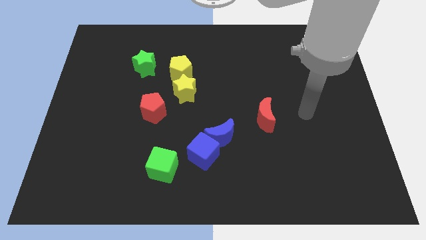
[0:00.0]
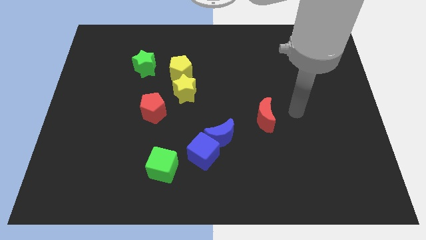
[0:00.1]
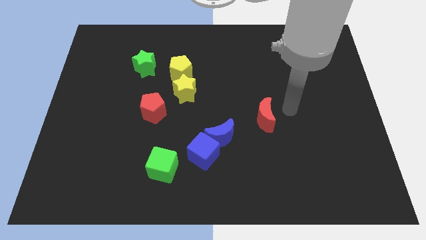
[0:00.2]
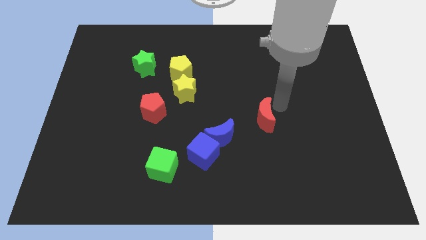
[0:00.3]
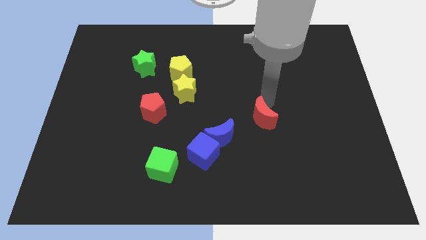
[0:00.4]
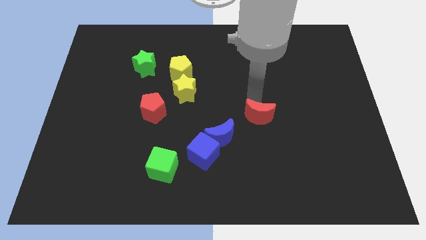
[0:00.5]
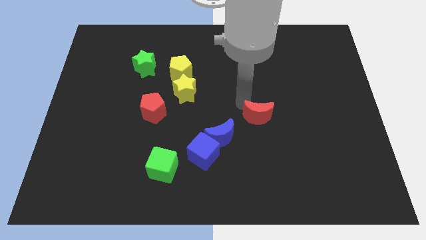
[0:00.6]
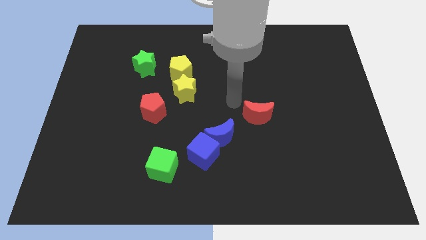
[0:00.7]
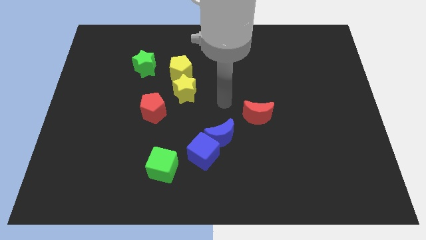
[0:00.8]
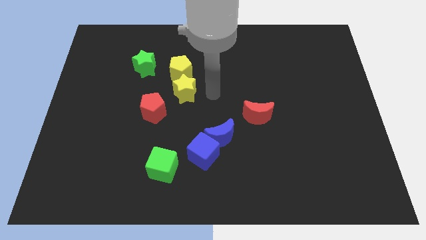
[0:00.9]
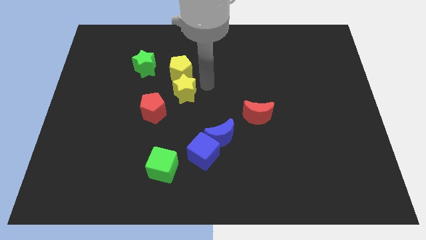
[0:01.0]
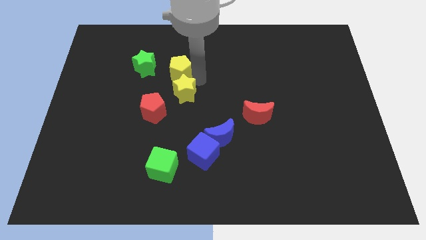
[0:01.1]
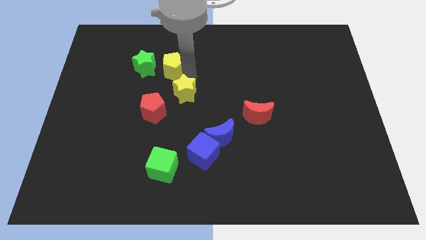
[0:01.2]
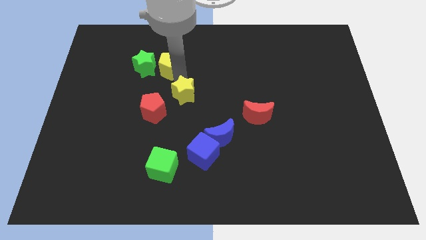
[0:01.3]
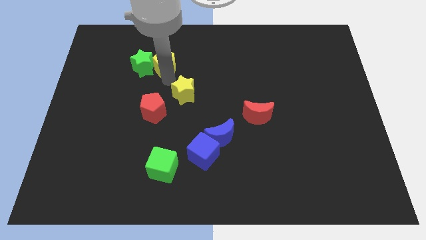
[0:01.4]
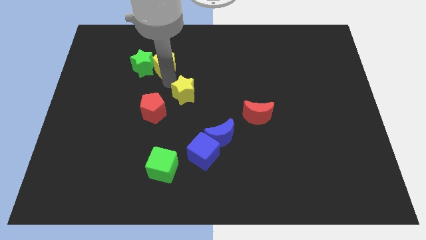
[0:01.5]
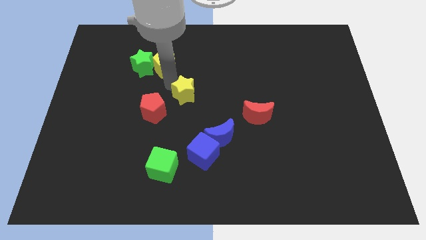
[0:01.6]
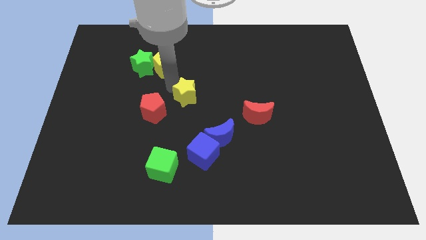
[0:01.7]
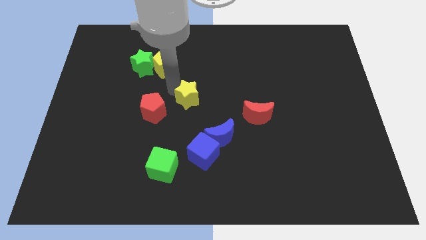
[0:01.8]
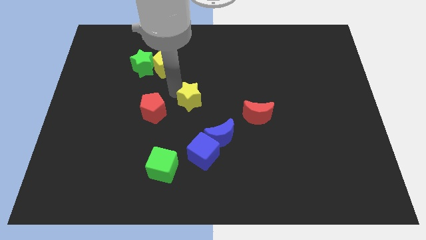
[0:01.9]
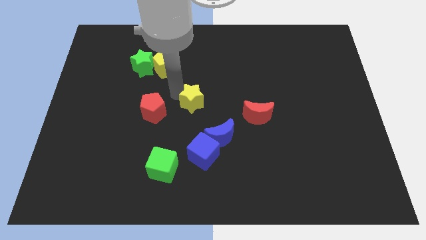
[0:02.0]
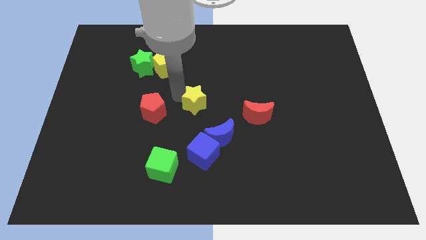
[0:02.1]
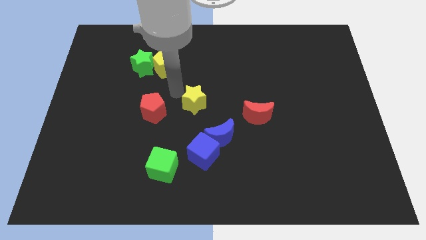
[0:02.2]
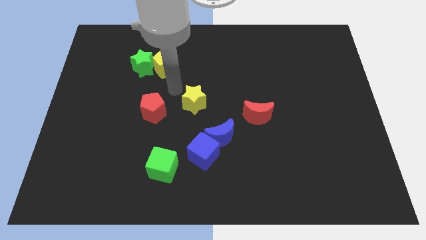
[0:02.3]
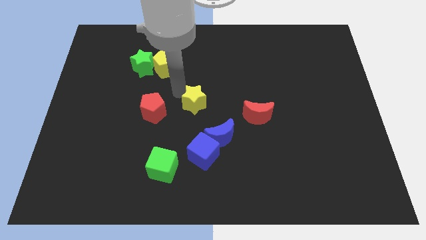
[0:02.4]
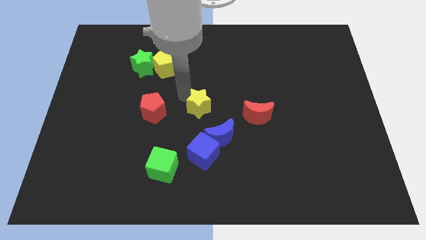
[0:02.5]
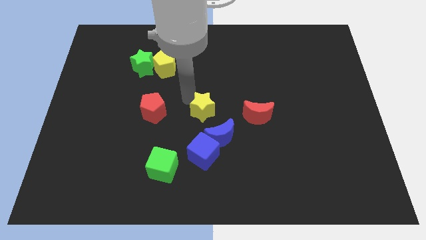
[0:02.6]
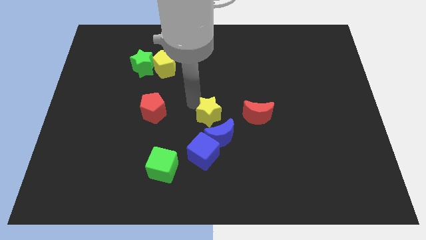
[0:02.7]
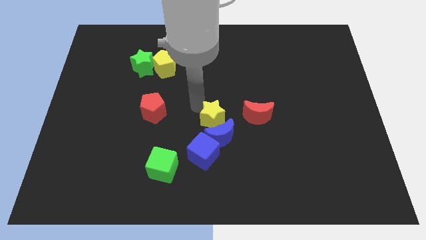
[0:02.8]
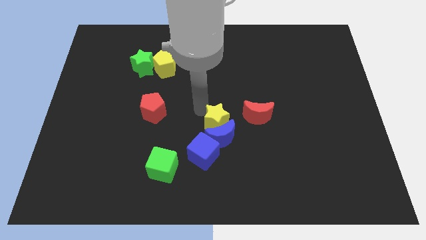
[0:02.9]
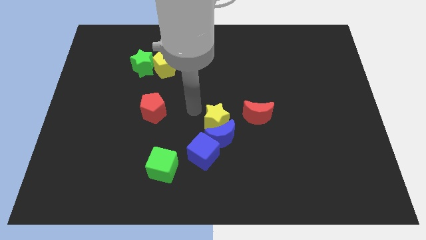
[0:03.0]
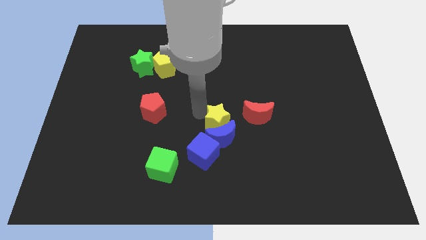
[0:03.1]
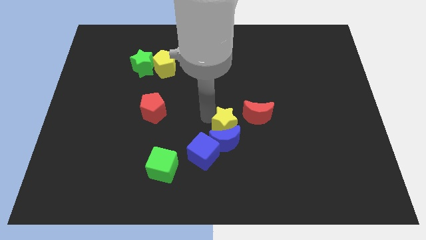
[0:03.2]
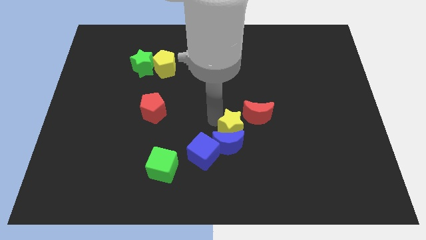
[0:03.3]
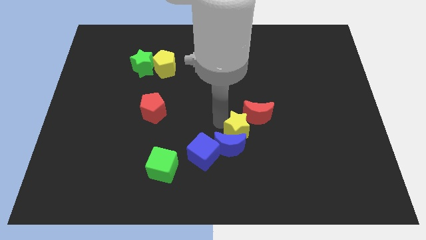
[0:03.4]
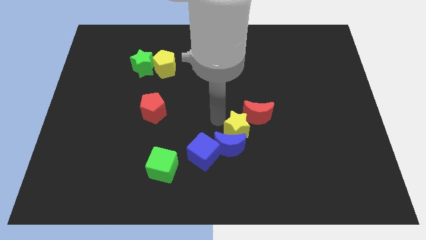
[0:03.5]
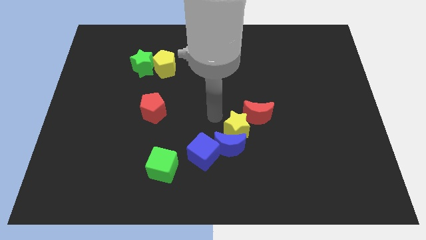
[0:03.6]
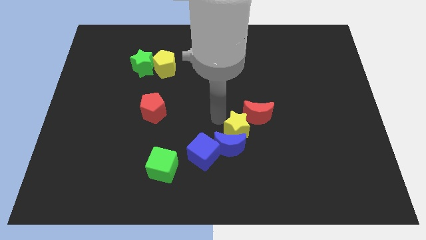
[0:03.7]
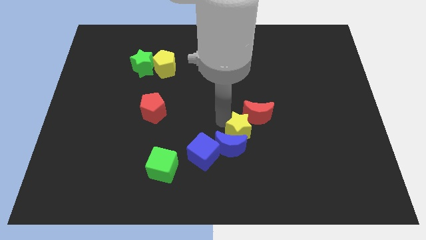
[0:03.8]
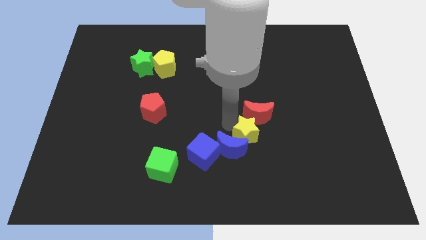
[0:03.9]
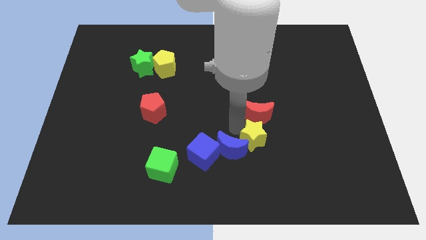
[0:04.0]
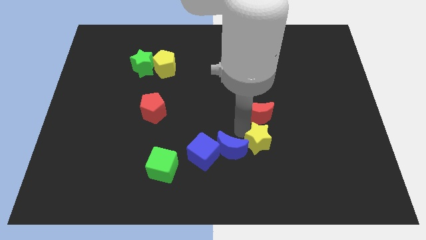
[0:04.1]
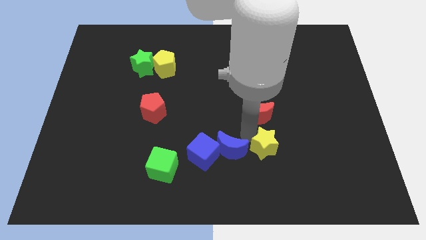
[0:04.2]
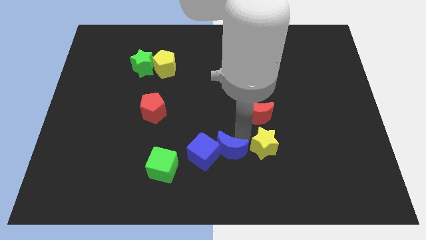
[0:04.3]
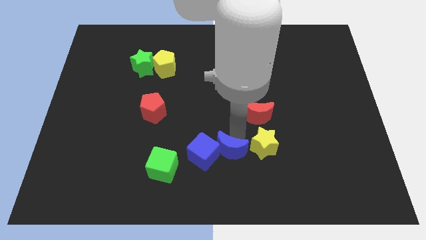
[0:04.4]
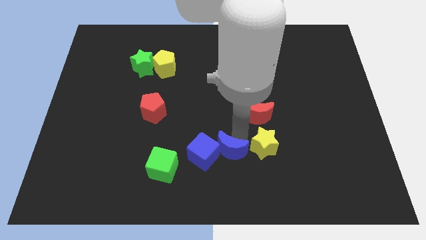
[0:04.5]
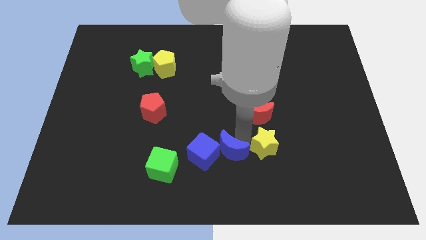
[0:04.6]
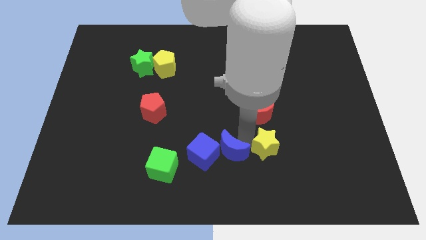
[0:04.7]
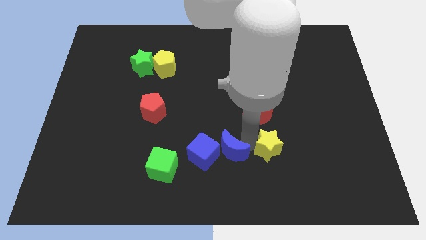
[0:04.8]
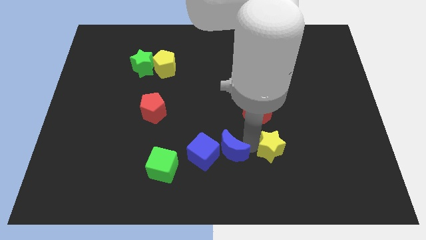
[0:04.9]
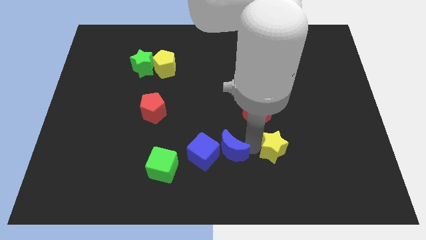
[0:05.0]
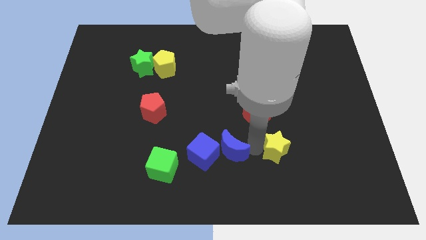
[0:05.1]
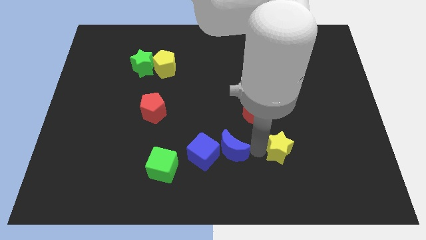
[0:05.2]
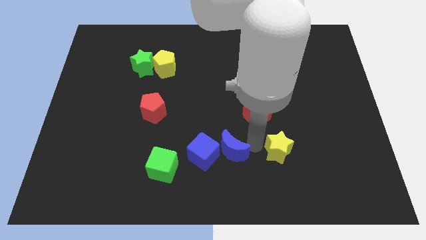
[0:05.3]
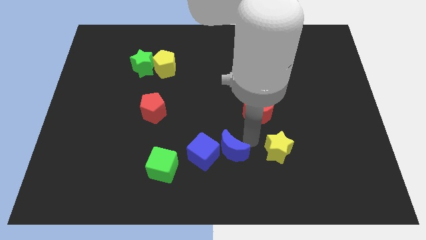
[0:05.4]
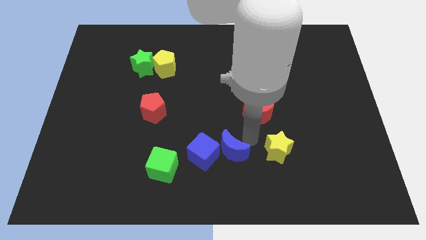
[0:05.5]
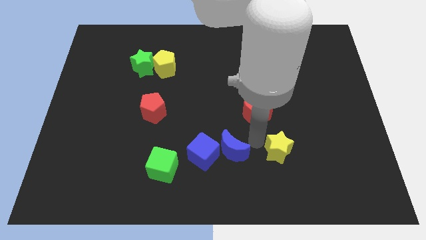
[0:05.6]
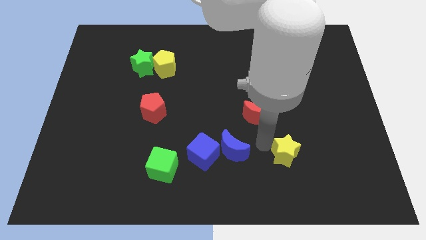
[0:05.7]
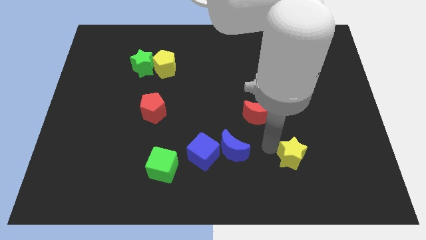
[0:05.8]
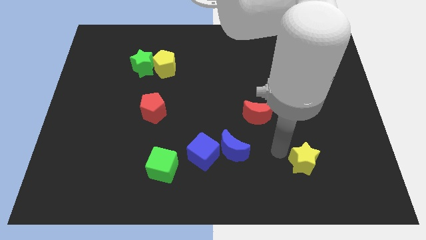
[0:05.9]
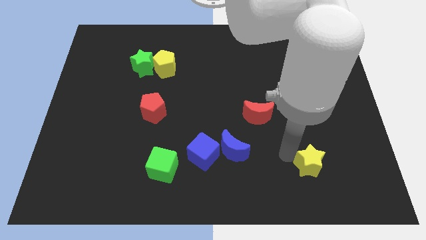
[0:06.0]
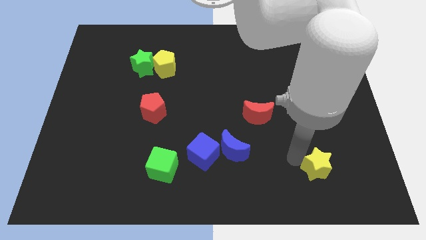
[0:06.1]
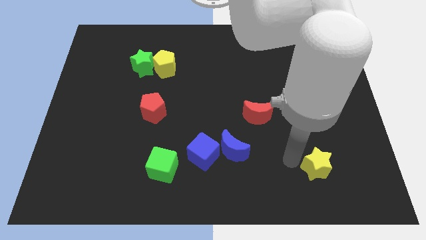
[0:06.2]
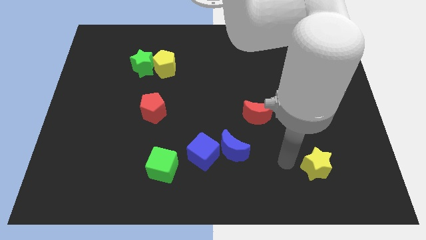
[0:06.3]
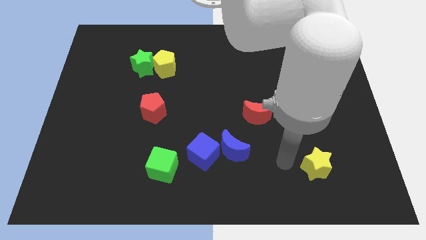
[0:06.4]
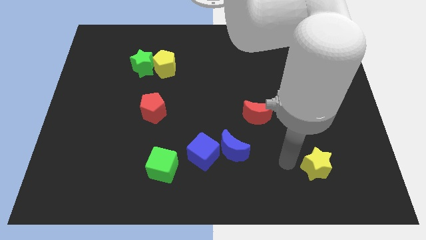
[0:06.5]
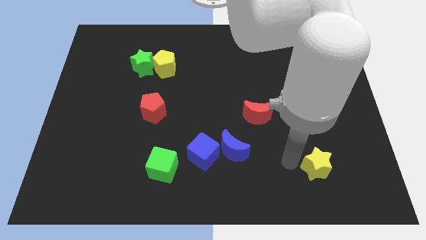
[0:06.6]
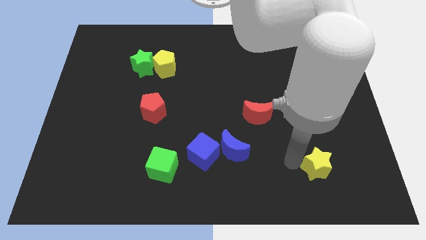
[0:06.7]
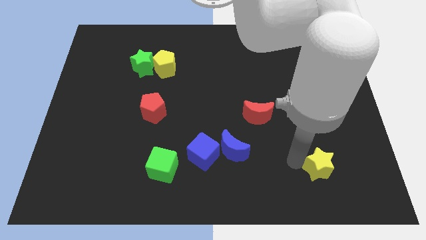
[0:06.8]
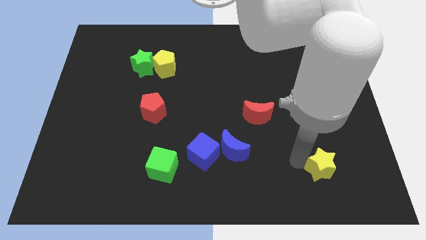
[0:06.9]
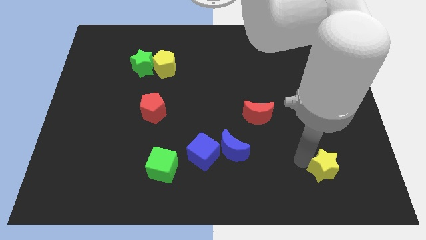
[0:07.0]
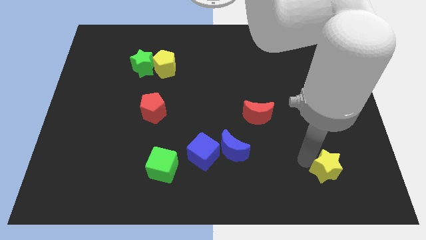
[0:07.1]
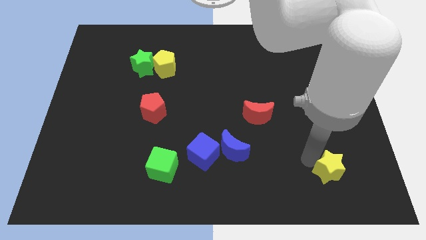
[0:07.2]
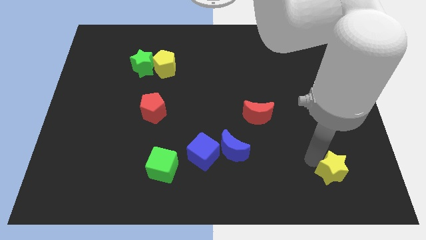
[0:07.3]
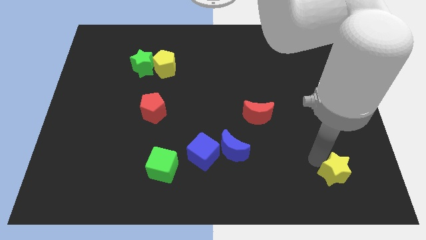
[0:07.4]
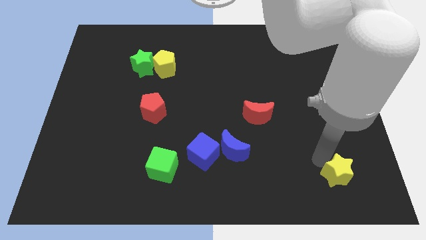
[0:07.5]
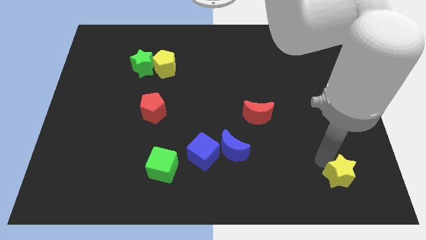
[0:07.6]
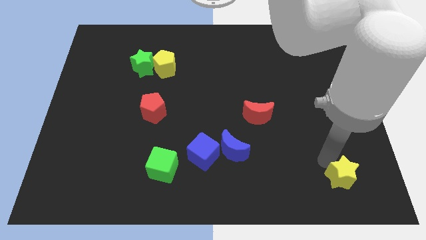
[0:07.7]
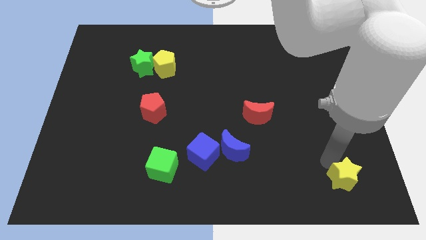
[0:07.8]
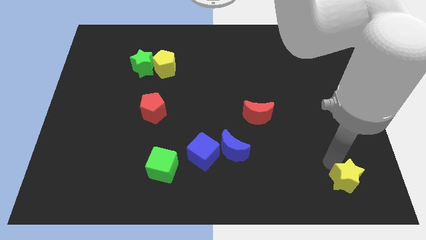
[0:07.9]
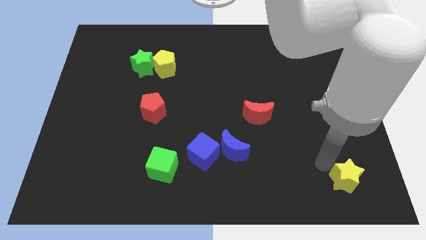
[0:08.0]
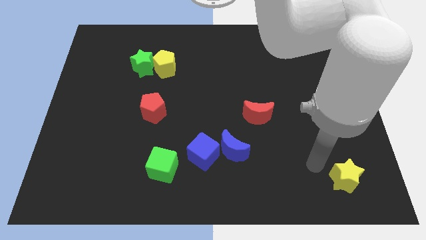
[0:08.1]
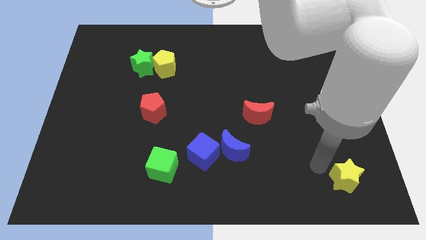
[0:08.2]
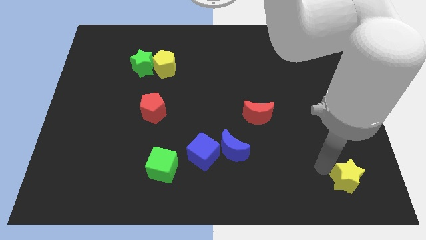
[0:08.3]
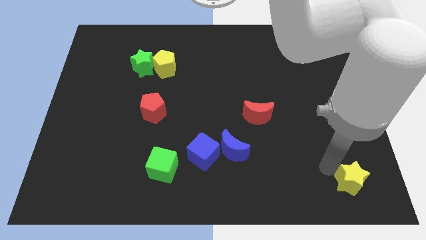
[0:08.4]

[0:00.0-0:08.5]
push the yellow star to the bottom right
